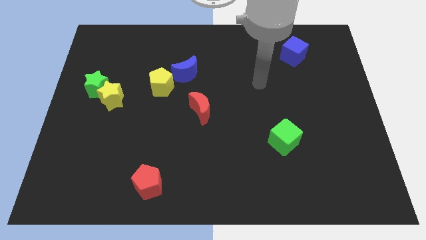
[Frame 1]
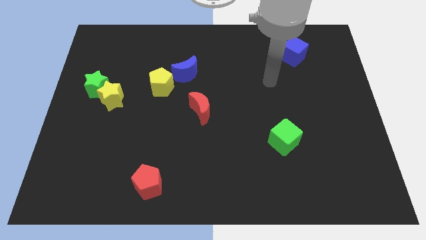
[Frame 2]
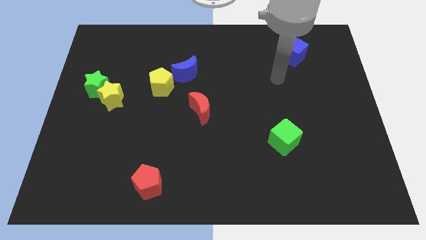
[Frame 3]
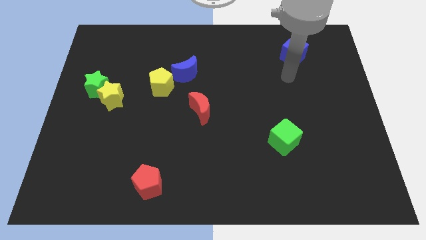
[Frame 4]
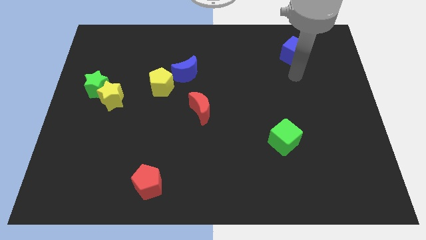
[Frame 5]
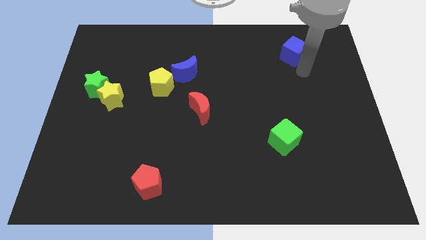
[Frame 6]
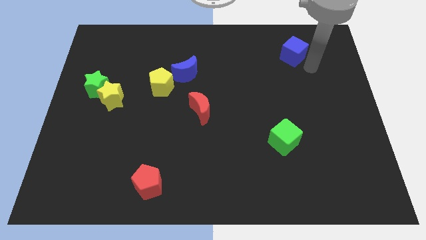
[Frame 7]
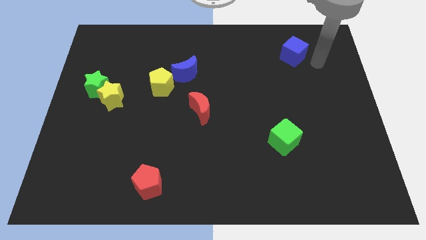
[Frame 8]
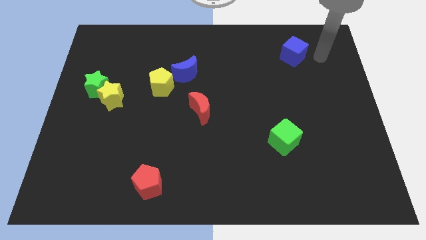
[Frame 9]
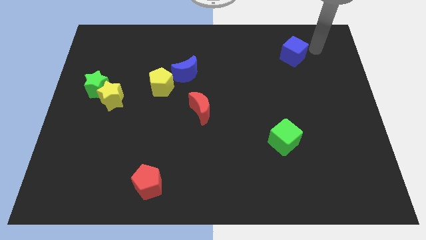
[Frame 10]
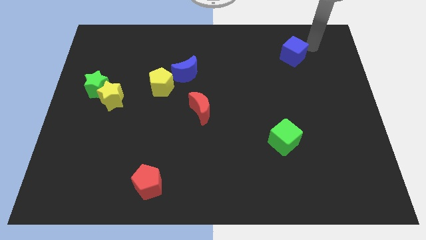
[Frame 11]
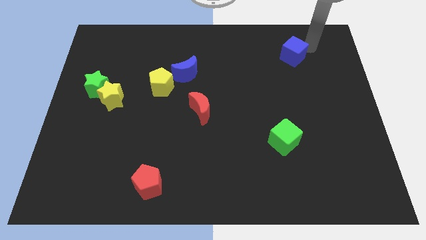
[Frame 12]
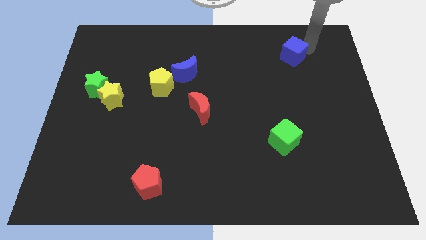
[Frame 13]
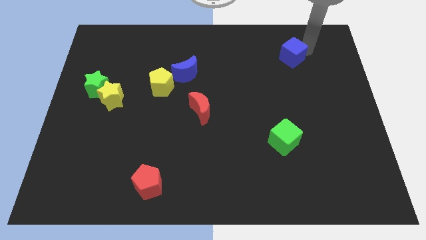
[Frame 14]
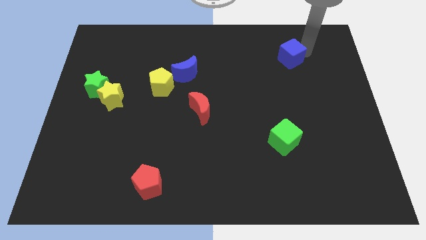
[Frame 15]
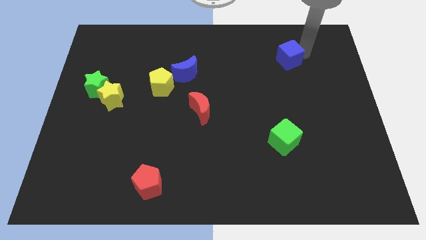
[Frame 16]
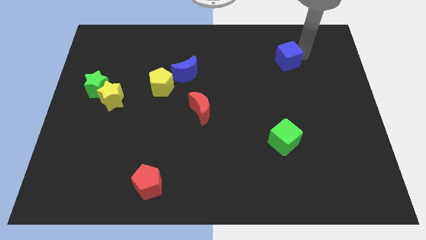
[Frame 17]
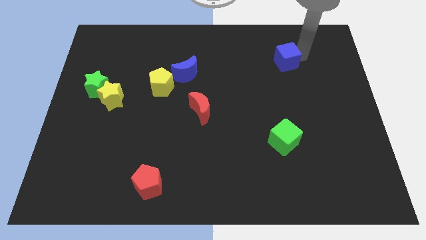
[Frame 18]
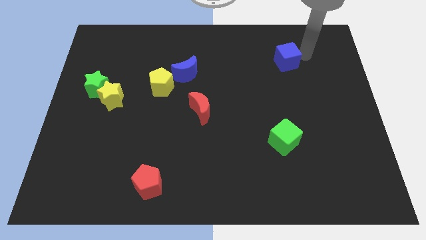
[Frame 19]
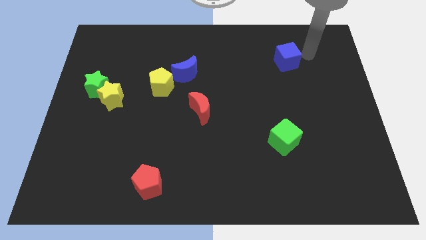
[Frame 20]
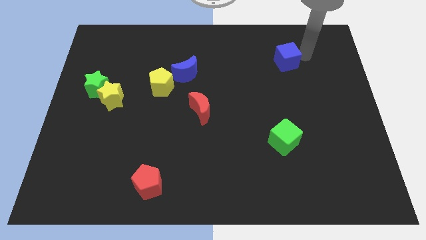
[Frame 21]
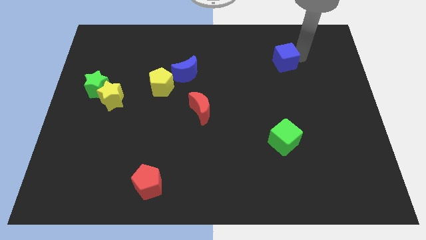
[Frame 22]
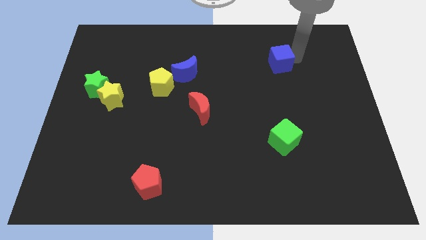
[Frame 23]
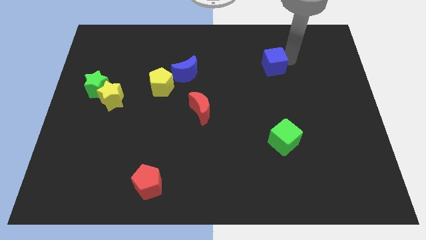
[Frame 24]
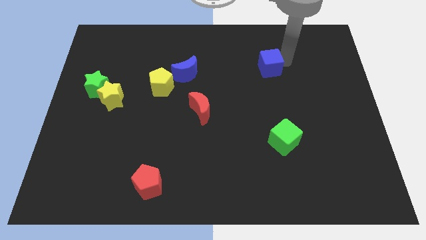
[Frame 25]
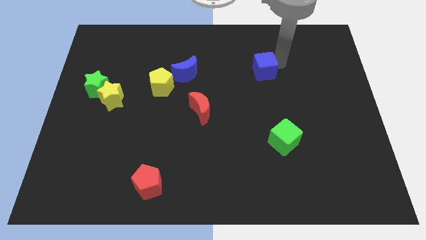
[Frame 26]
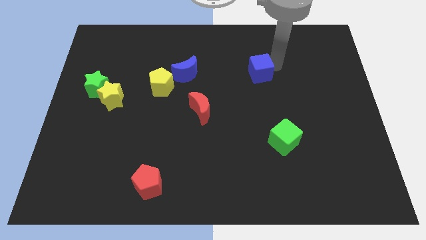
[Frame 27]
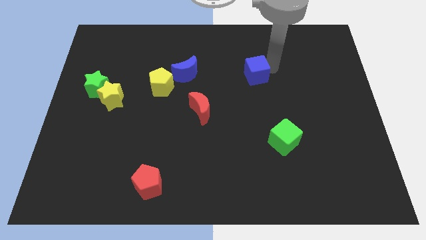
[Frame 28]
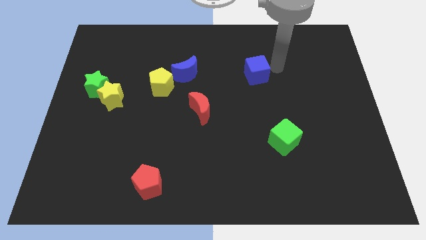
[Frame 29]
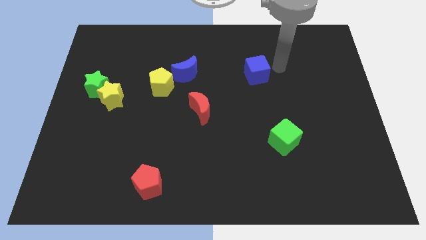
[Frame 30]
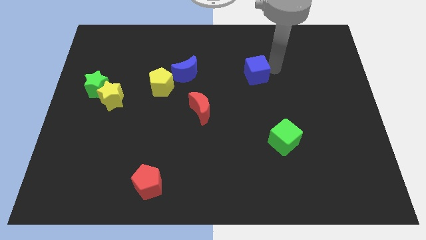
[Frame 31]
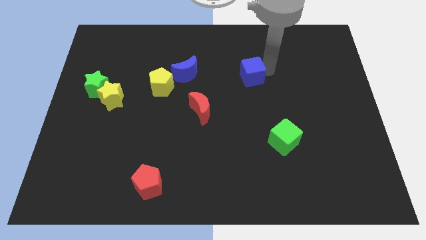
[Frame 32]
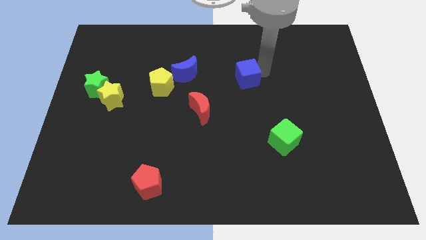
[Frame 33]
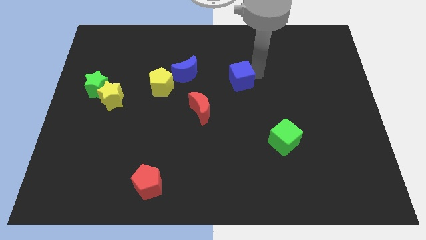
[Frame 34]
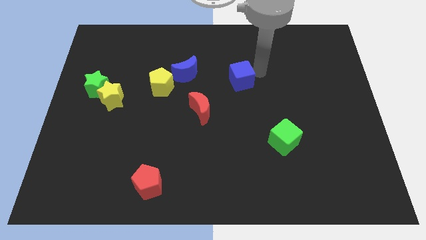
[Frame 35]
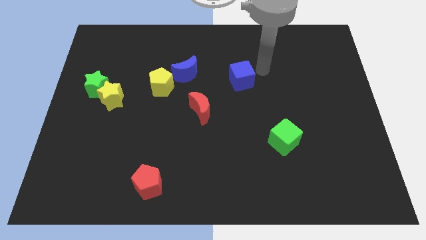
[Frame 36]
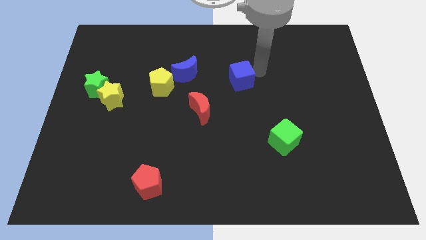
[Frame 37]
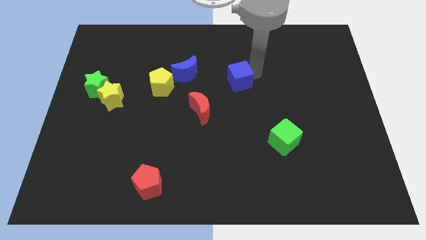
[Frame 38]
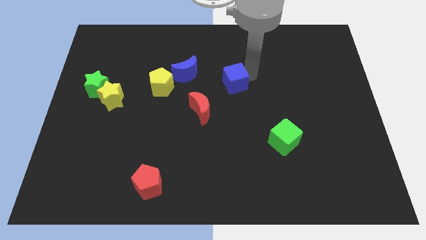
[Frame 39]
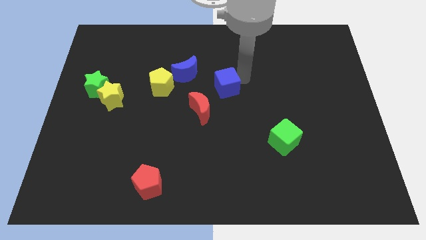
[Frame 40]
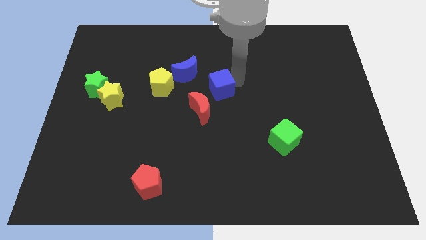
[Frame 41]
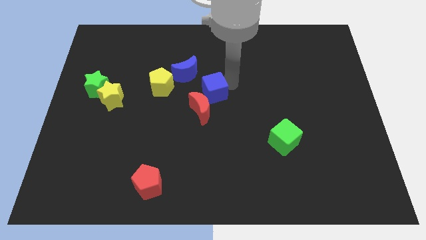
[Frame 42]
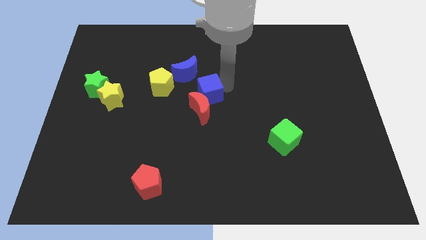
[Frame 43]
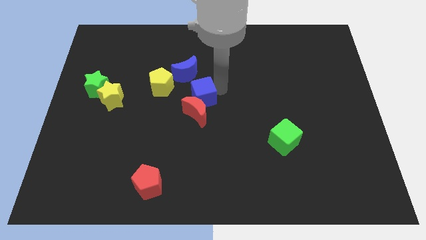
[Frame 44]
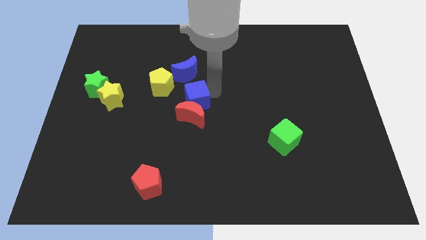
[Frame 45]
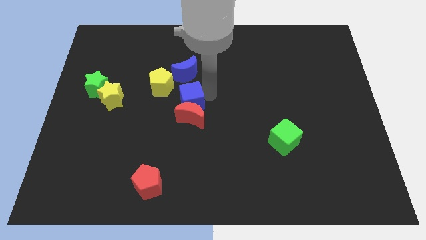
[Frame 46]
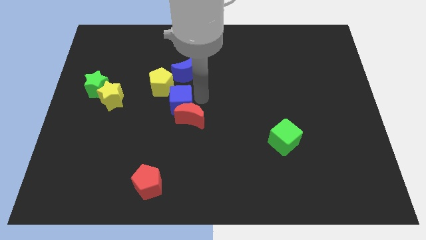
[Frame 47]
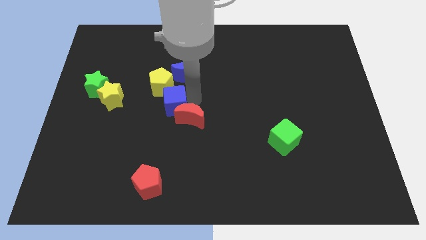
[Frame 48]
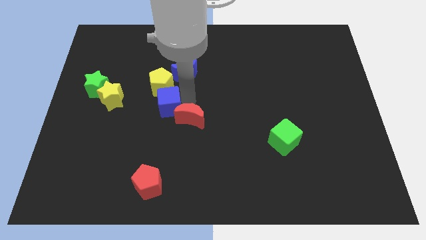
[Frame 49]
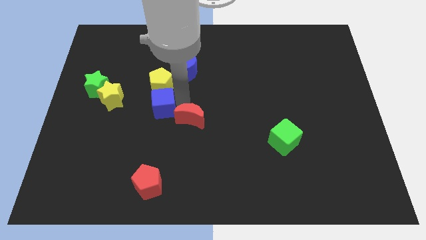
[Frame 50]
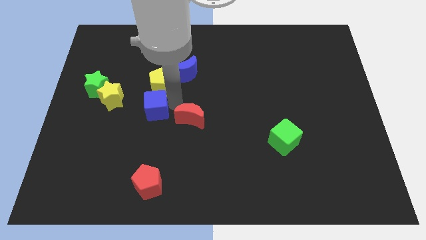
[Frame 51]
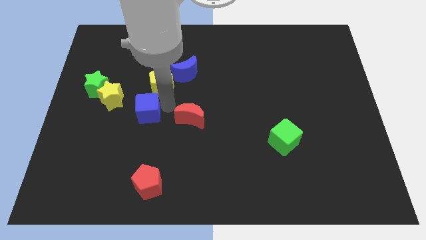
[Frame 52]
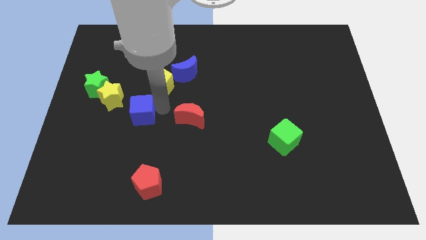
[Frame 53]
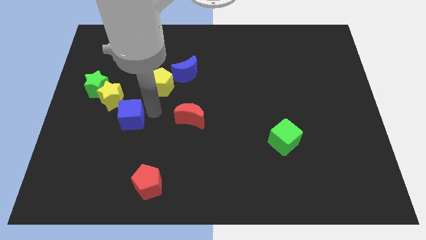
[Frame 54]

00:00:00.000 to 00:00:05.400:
move the blue cube to the bottom right of the green star

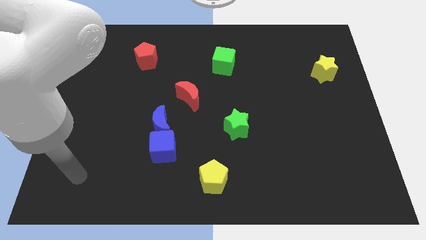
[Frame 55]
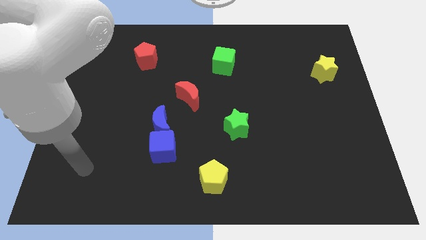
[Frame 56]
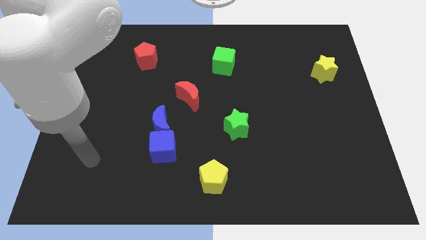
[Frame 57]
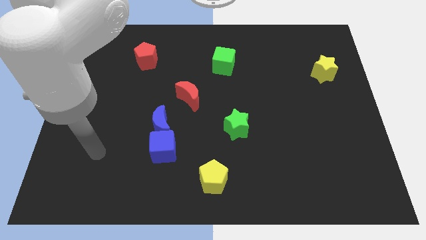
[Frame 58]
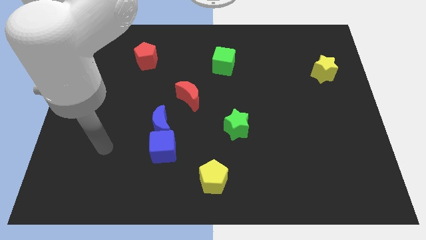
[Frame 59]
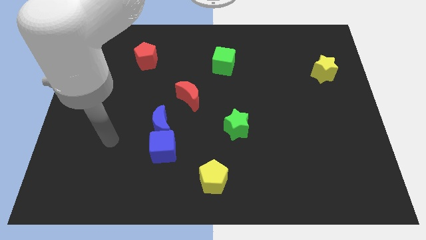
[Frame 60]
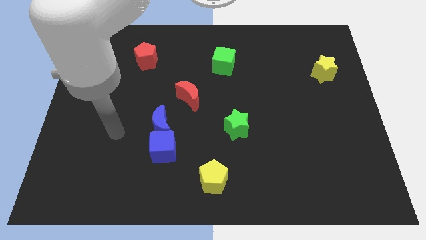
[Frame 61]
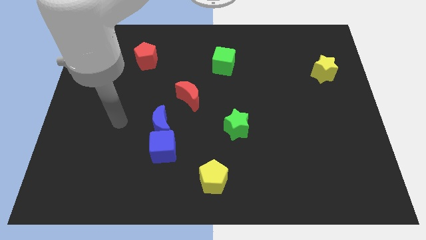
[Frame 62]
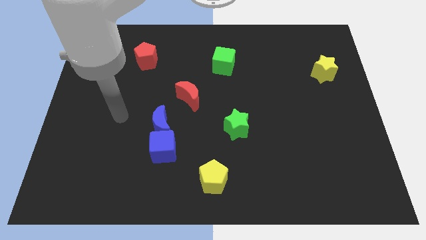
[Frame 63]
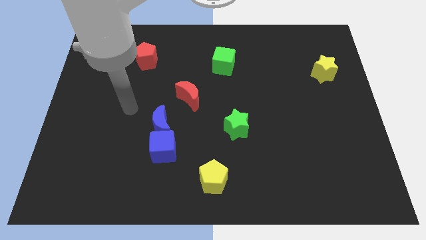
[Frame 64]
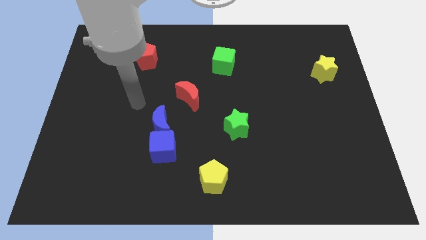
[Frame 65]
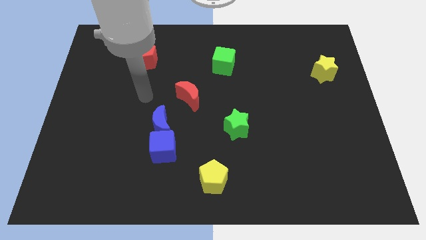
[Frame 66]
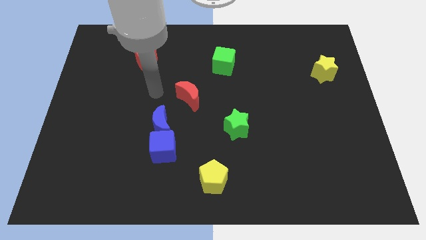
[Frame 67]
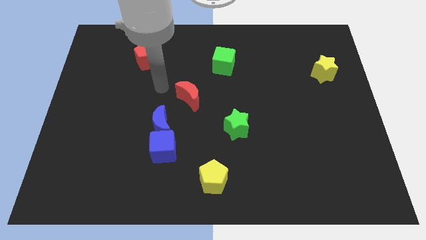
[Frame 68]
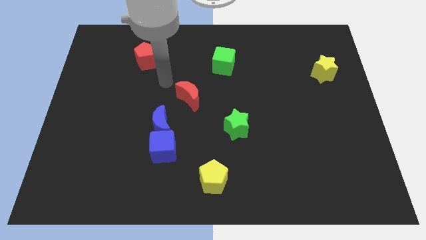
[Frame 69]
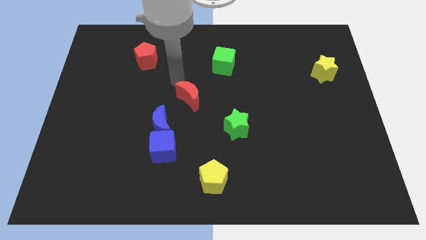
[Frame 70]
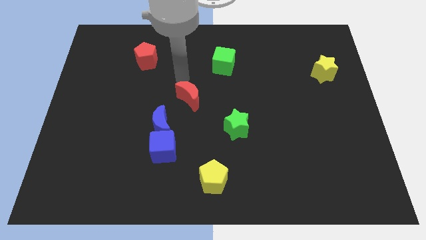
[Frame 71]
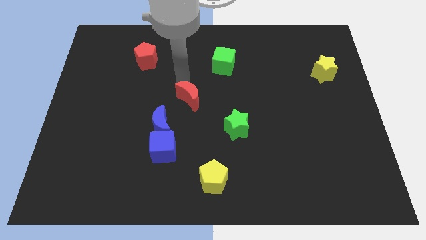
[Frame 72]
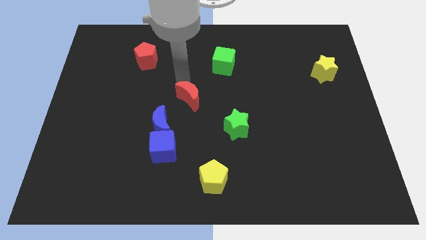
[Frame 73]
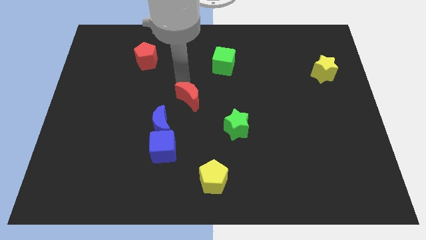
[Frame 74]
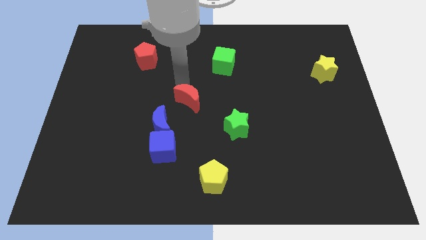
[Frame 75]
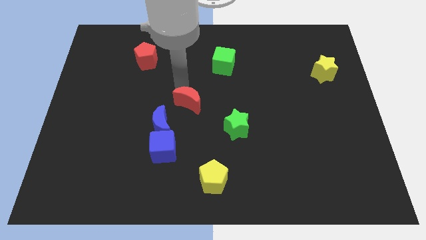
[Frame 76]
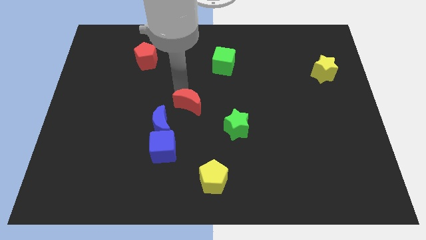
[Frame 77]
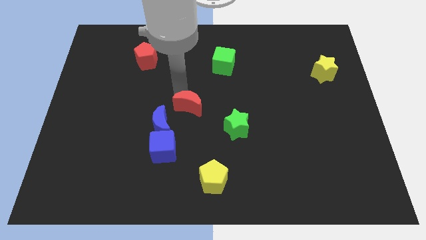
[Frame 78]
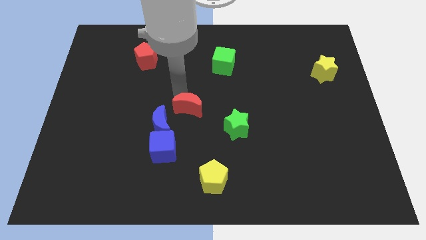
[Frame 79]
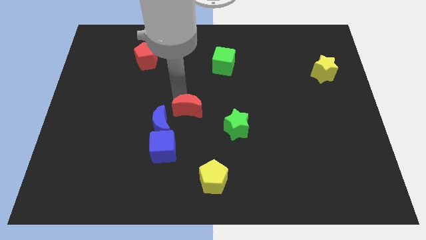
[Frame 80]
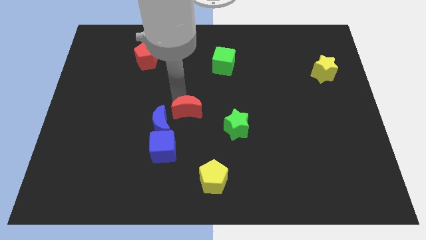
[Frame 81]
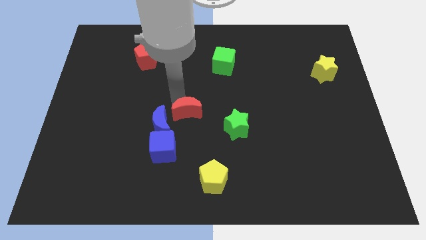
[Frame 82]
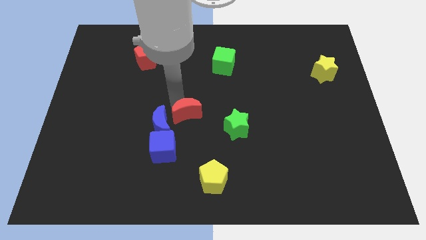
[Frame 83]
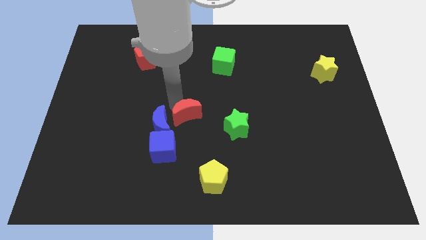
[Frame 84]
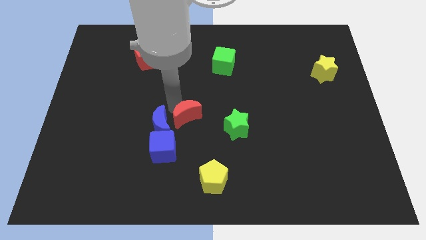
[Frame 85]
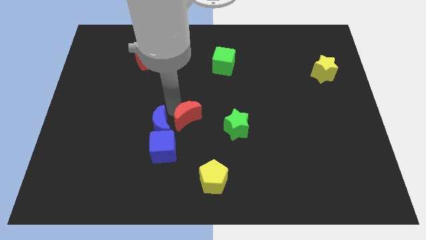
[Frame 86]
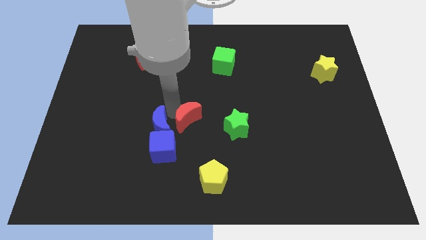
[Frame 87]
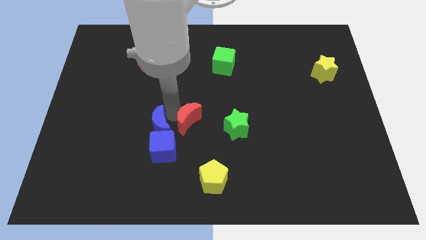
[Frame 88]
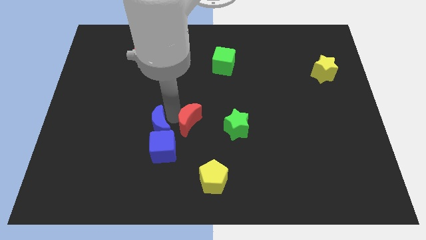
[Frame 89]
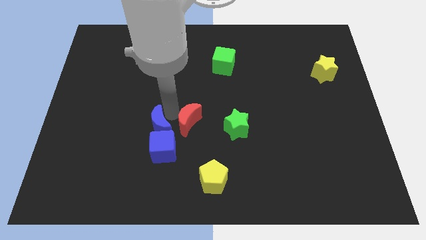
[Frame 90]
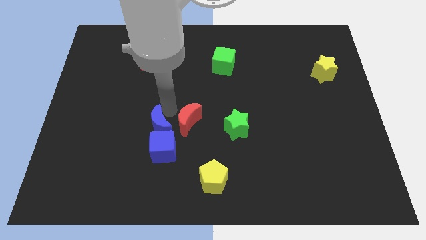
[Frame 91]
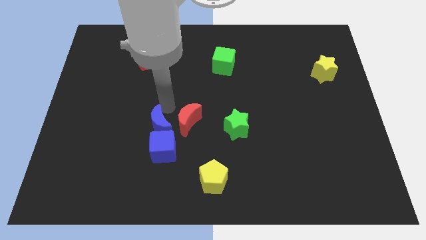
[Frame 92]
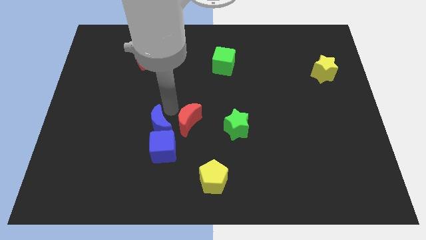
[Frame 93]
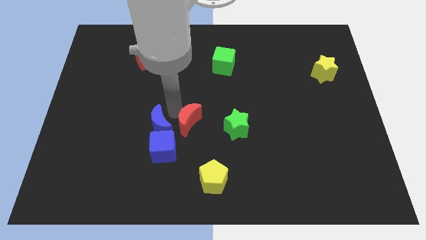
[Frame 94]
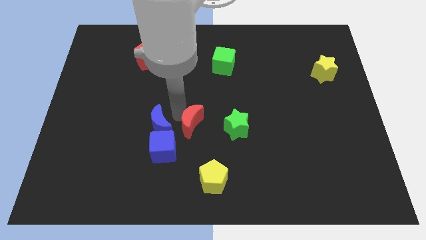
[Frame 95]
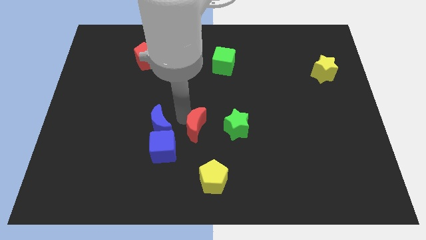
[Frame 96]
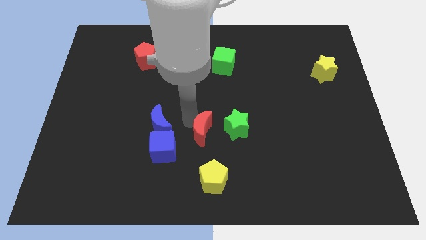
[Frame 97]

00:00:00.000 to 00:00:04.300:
push the red moon just right of the blue cube
